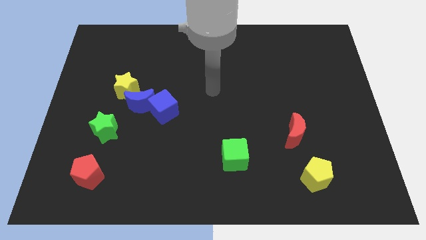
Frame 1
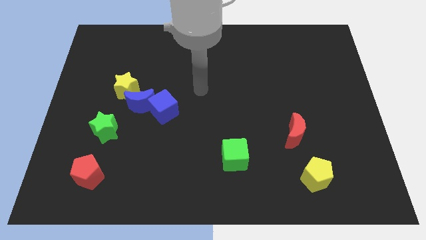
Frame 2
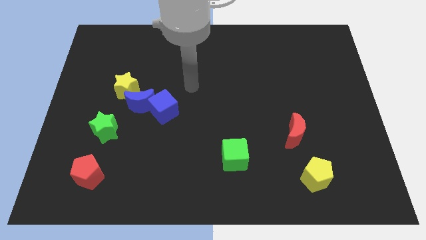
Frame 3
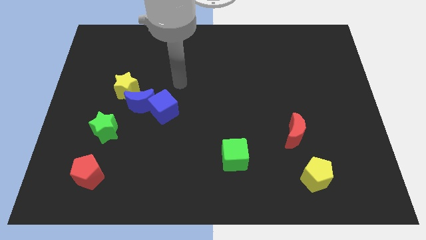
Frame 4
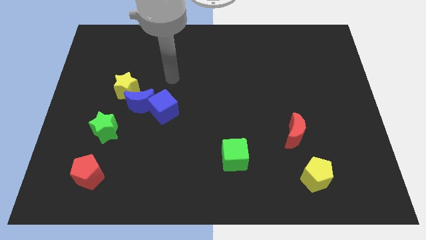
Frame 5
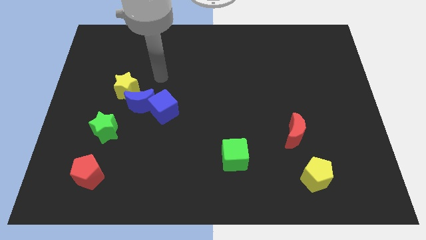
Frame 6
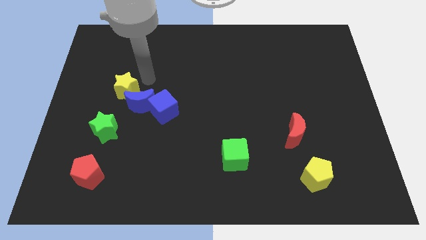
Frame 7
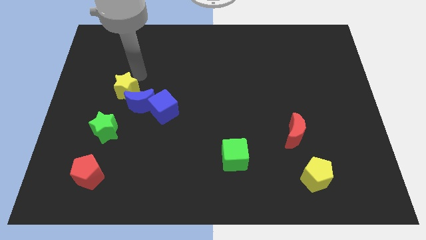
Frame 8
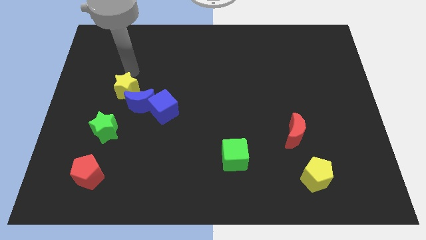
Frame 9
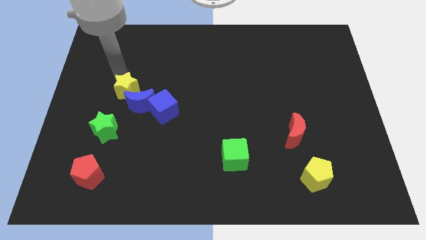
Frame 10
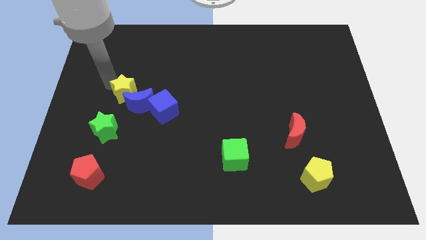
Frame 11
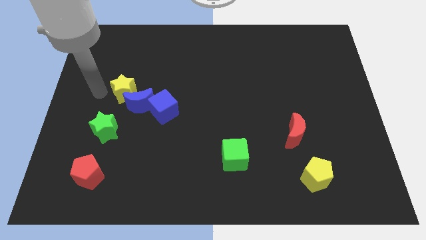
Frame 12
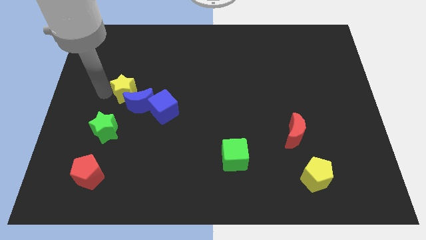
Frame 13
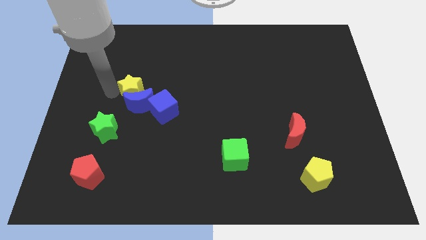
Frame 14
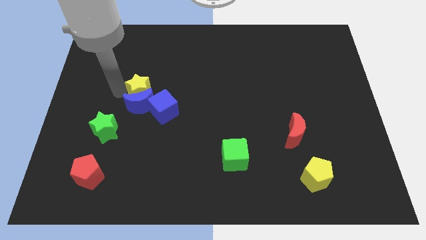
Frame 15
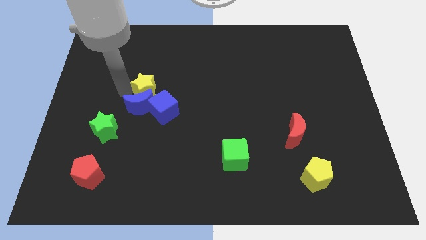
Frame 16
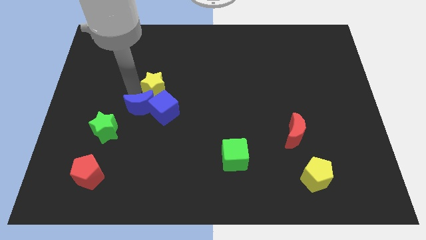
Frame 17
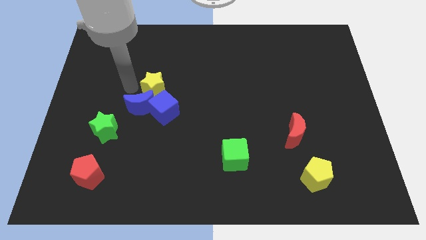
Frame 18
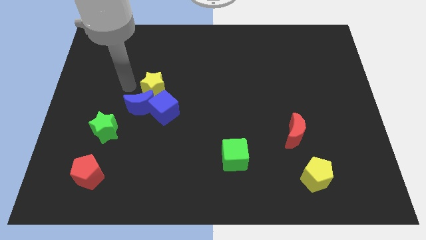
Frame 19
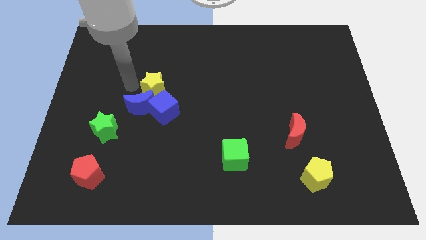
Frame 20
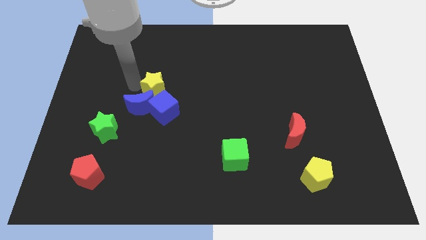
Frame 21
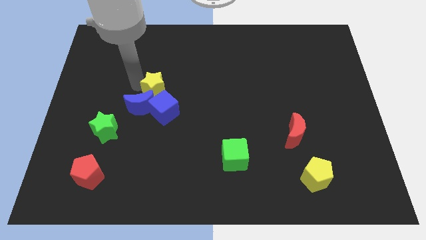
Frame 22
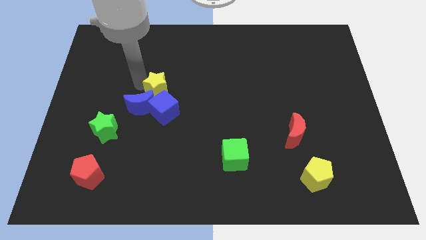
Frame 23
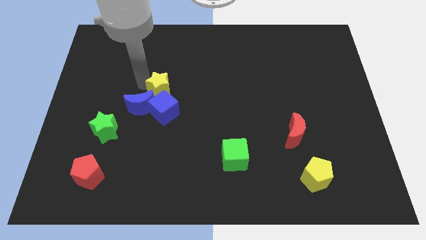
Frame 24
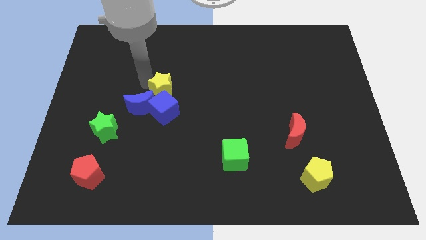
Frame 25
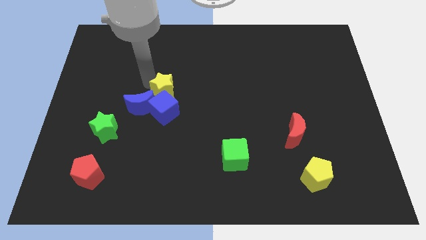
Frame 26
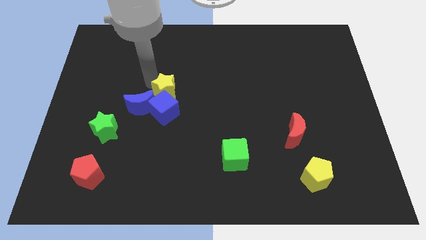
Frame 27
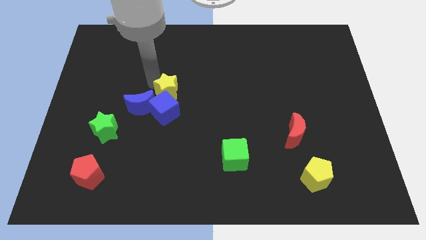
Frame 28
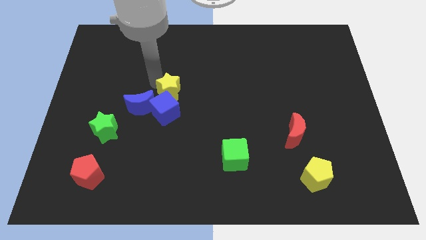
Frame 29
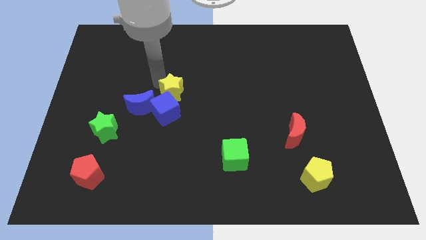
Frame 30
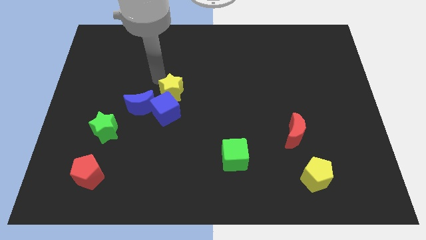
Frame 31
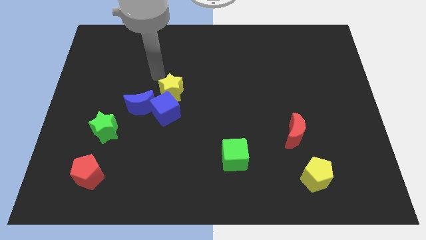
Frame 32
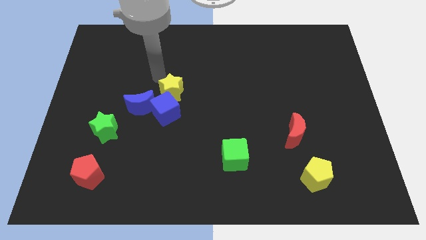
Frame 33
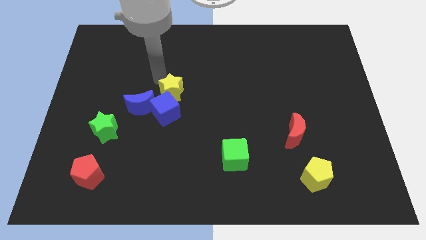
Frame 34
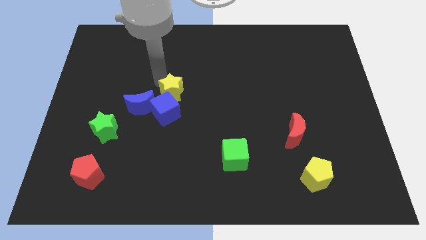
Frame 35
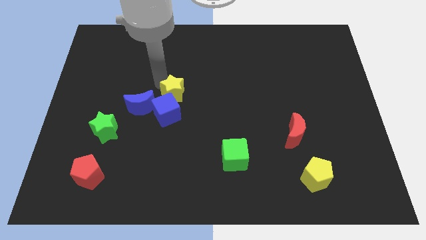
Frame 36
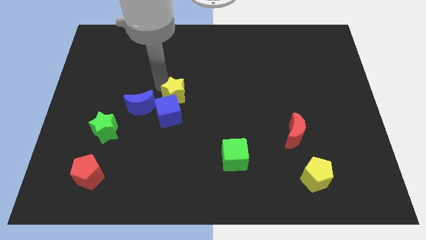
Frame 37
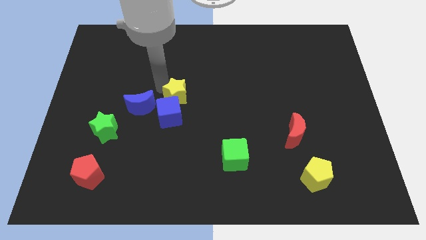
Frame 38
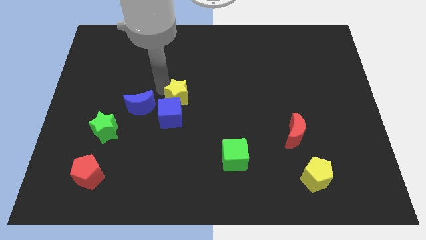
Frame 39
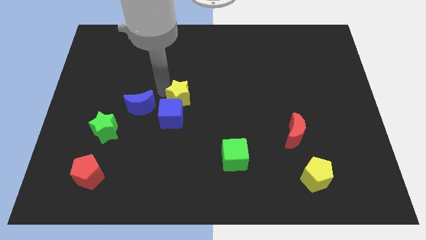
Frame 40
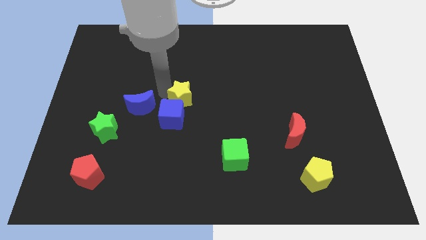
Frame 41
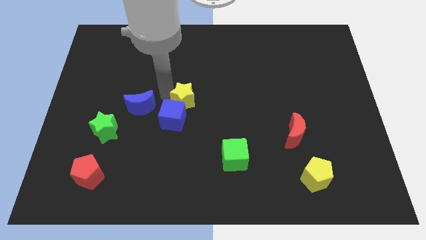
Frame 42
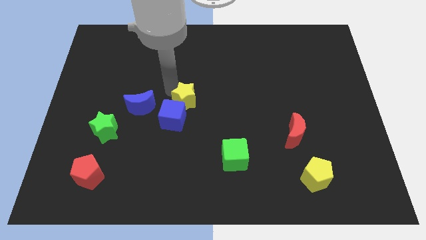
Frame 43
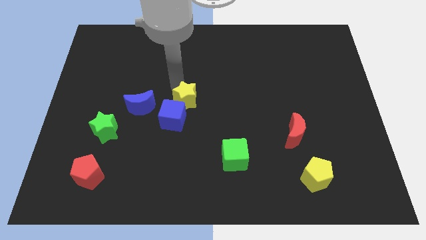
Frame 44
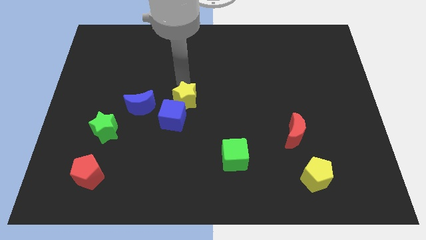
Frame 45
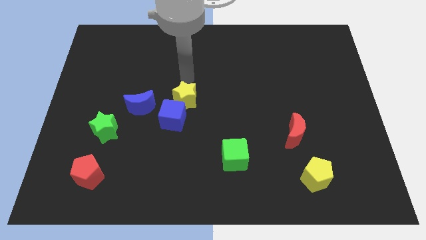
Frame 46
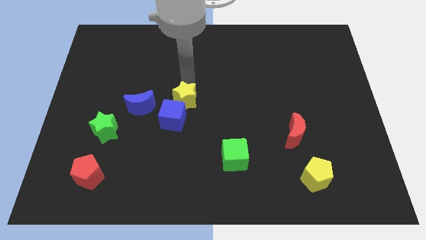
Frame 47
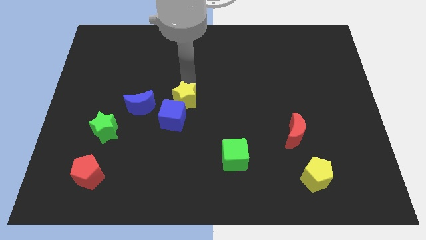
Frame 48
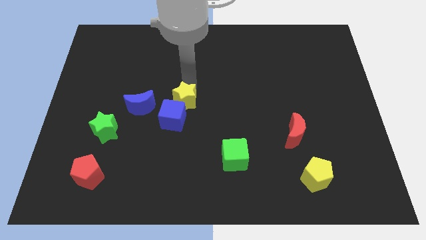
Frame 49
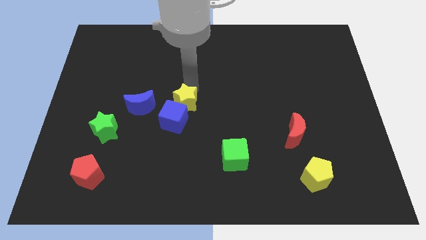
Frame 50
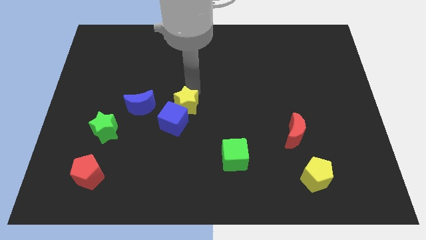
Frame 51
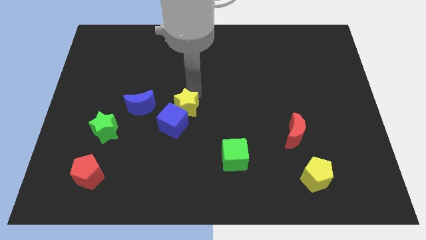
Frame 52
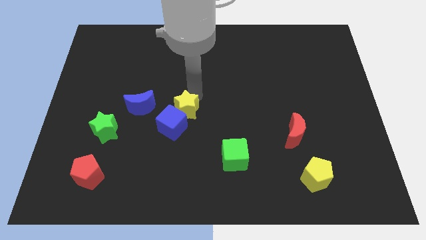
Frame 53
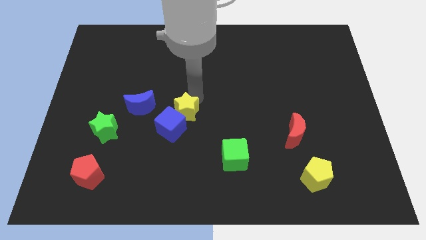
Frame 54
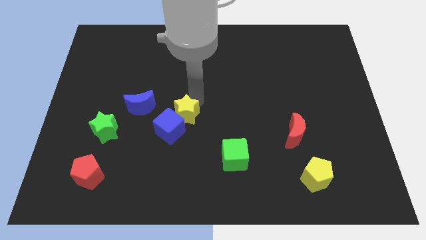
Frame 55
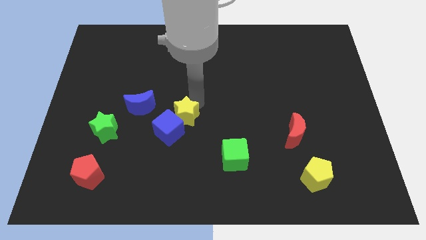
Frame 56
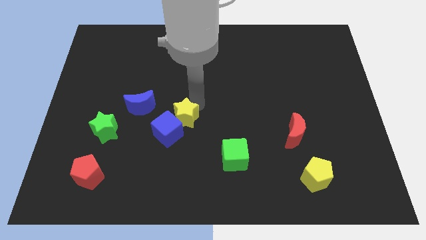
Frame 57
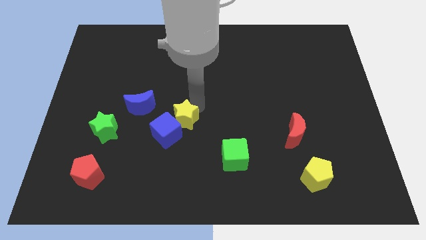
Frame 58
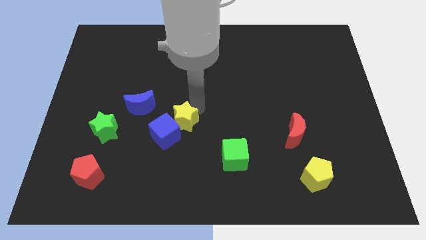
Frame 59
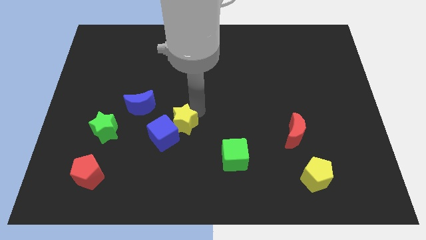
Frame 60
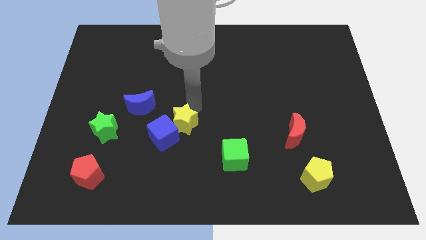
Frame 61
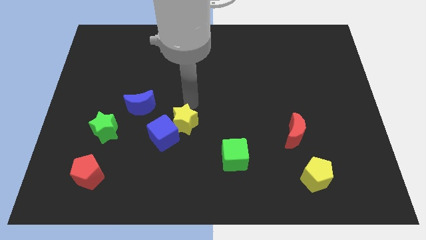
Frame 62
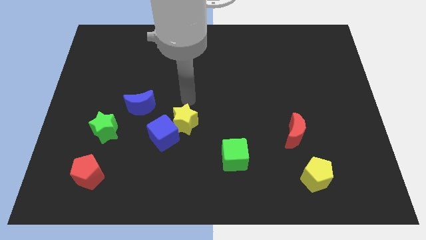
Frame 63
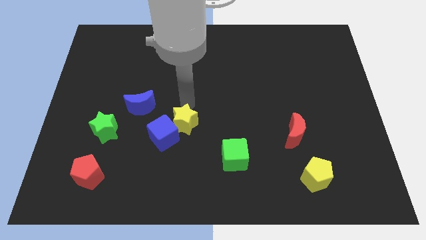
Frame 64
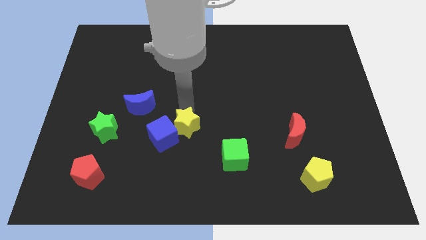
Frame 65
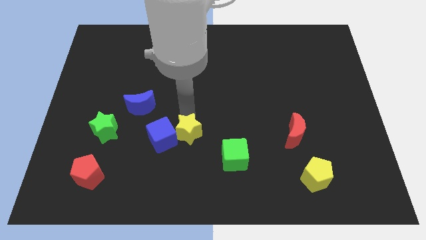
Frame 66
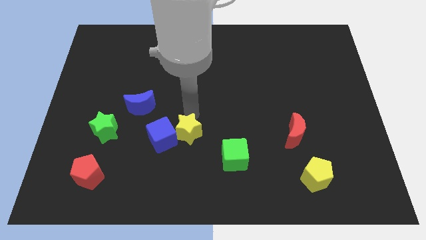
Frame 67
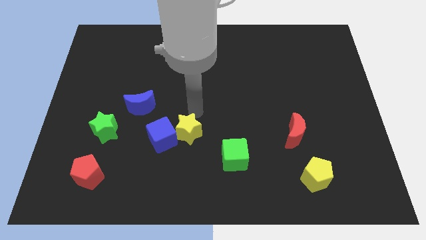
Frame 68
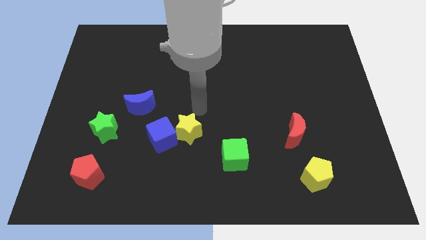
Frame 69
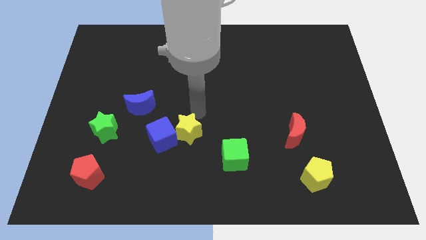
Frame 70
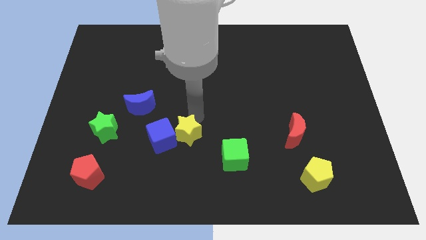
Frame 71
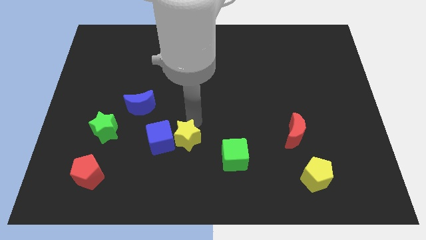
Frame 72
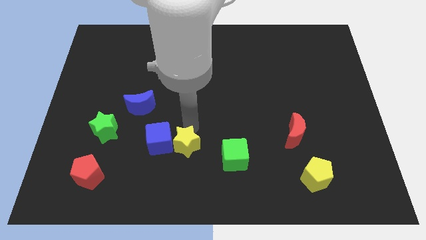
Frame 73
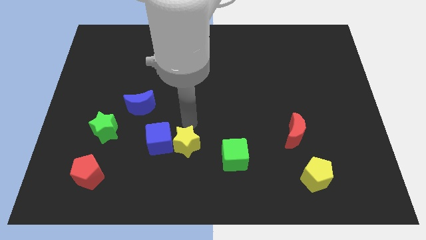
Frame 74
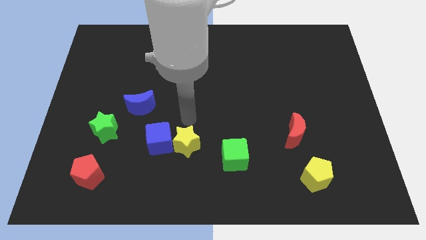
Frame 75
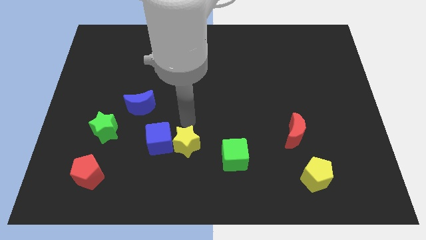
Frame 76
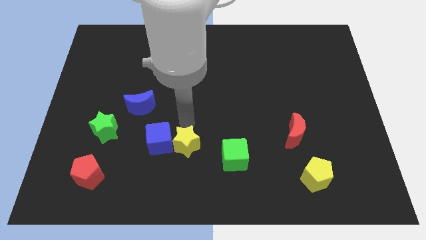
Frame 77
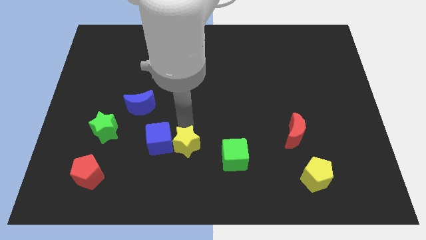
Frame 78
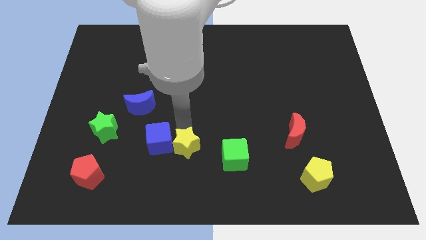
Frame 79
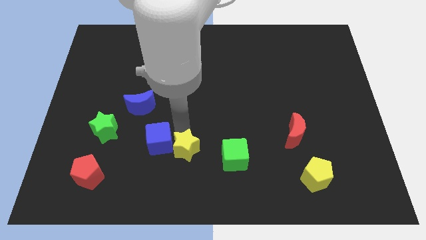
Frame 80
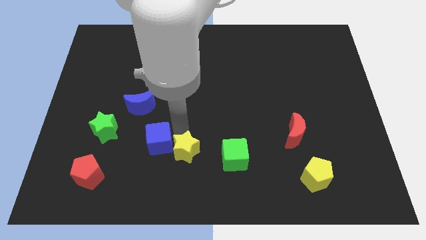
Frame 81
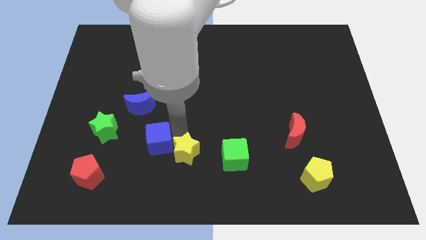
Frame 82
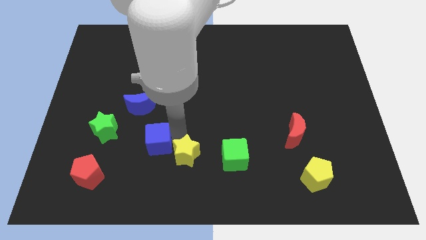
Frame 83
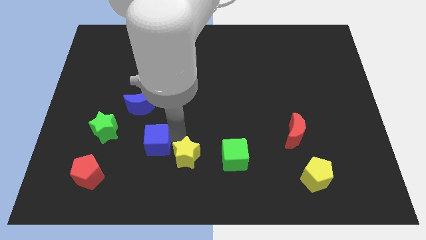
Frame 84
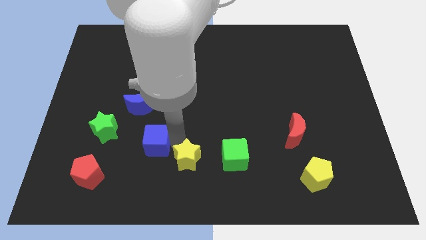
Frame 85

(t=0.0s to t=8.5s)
put the yellow star to the bottom
